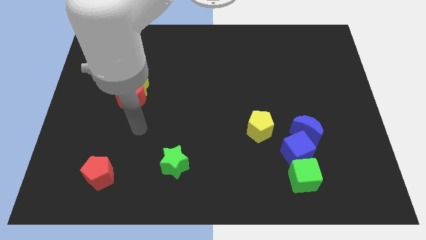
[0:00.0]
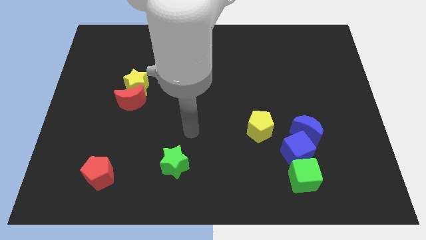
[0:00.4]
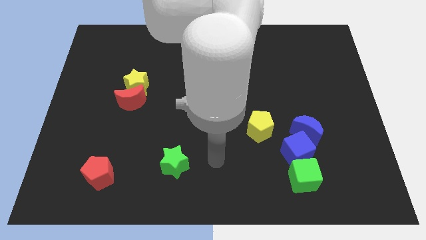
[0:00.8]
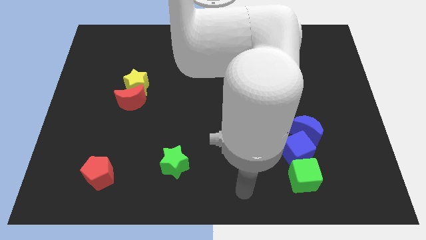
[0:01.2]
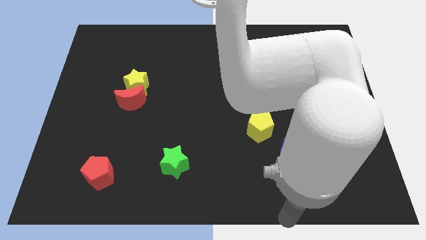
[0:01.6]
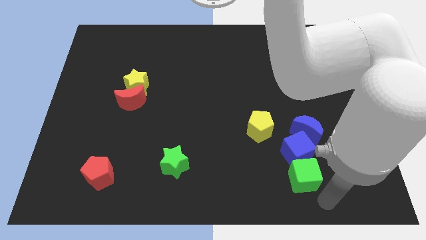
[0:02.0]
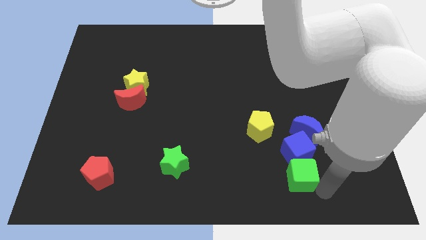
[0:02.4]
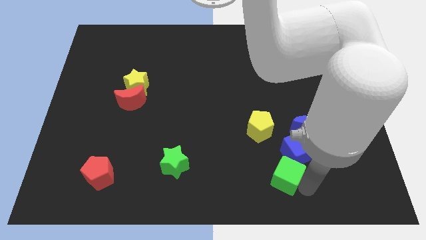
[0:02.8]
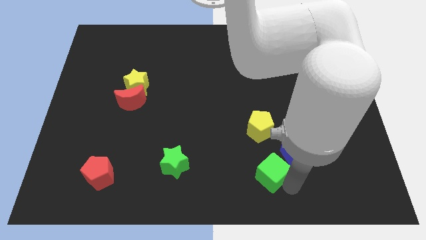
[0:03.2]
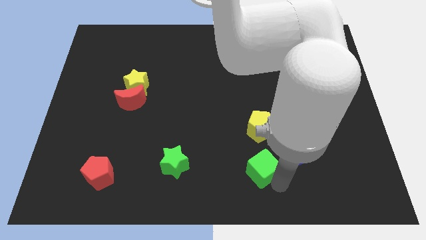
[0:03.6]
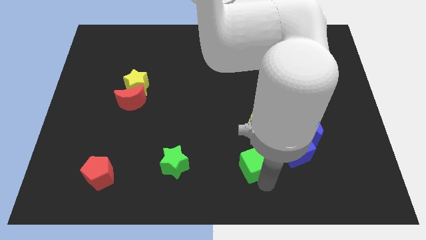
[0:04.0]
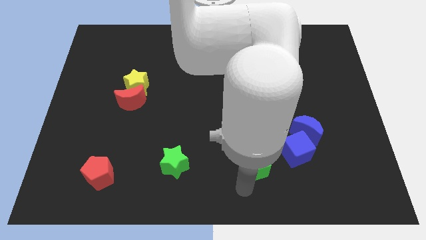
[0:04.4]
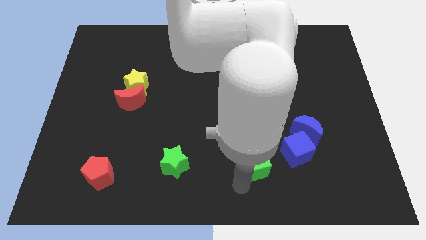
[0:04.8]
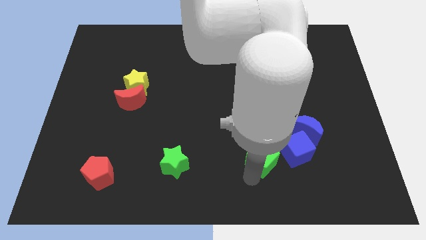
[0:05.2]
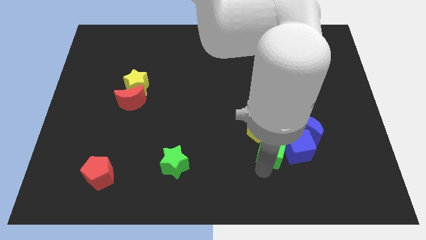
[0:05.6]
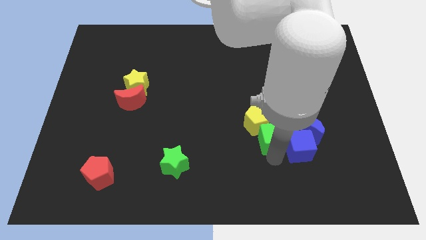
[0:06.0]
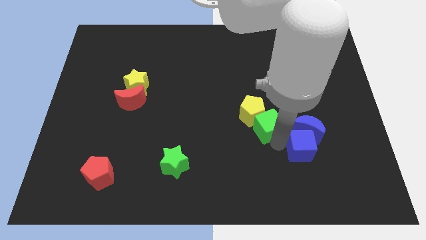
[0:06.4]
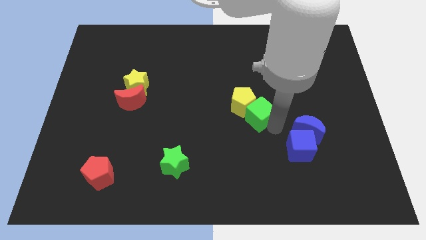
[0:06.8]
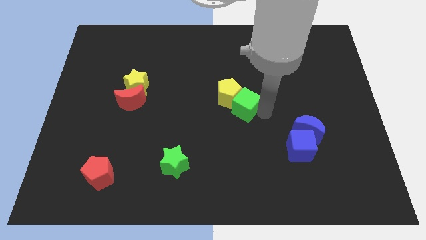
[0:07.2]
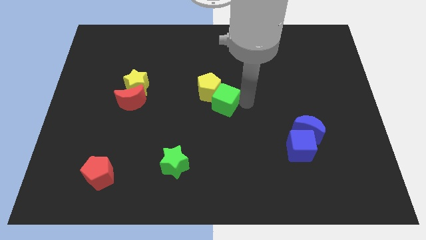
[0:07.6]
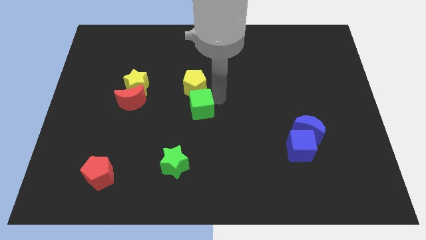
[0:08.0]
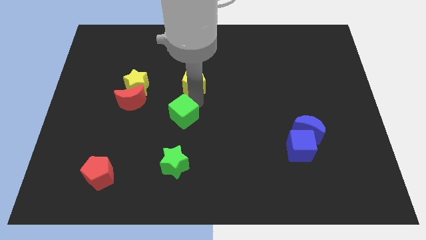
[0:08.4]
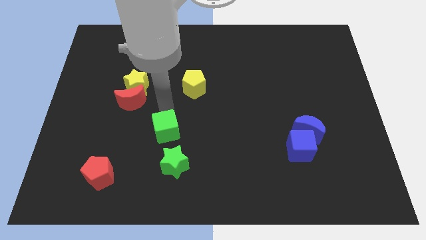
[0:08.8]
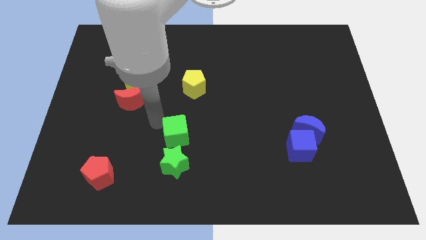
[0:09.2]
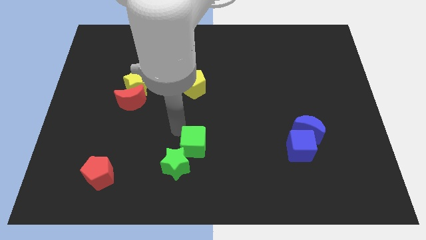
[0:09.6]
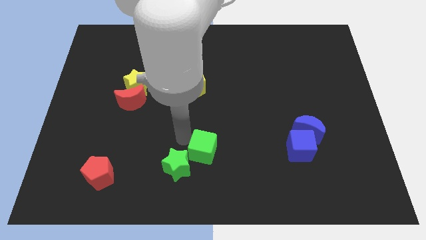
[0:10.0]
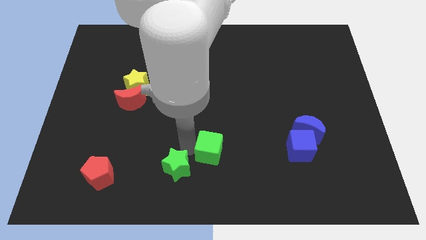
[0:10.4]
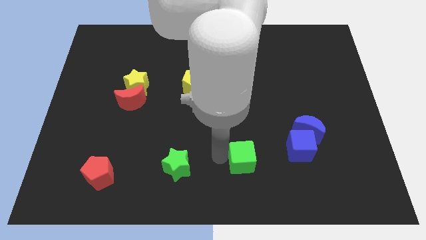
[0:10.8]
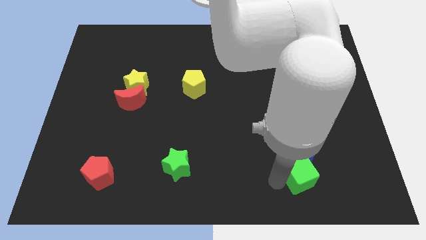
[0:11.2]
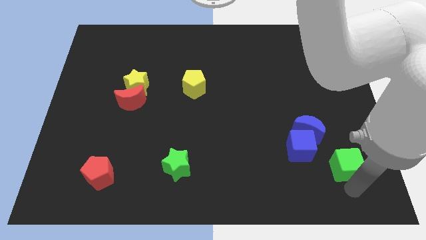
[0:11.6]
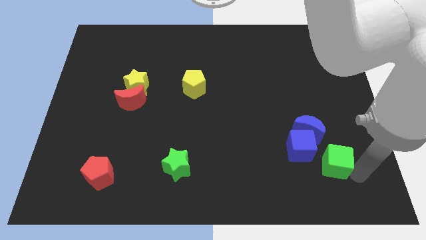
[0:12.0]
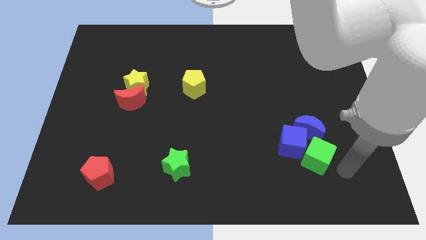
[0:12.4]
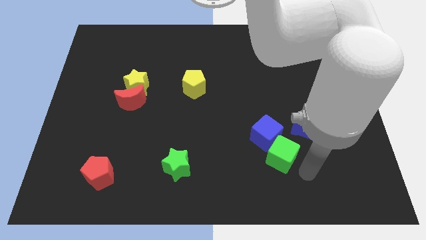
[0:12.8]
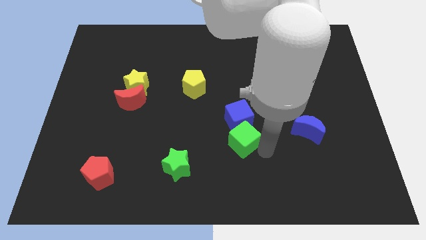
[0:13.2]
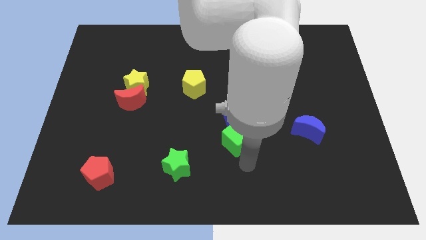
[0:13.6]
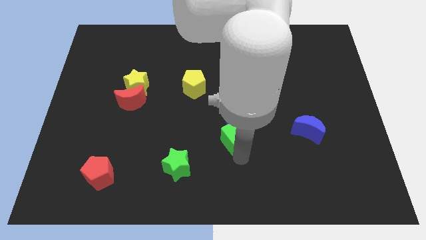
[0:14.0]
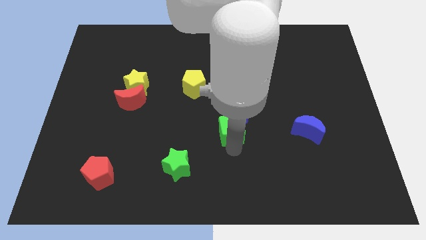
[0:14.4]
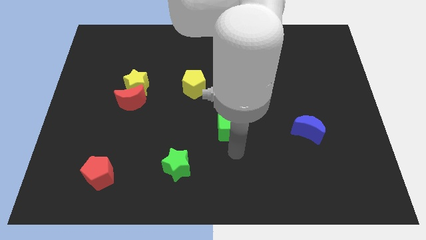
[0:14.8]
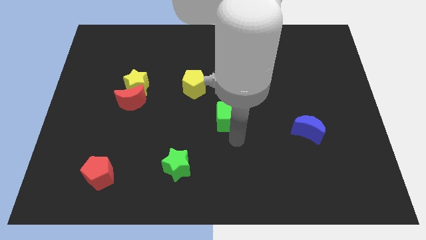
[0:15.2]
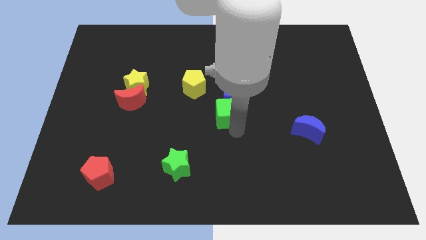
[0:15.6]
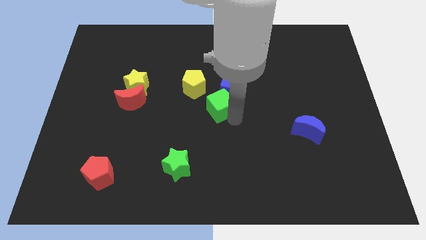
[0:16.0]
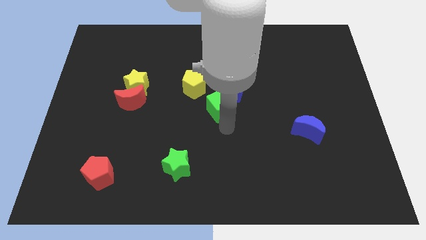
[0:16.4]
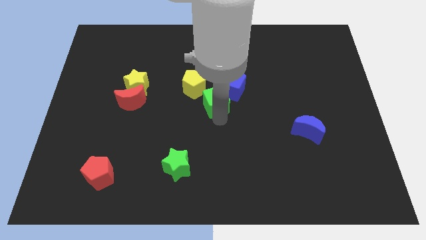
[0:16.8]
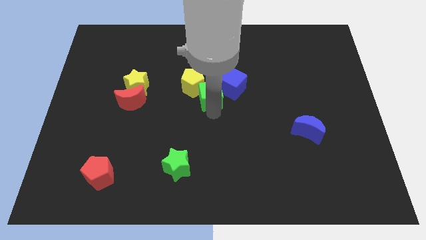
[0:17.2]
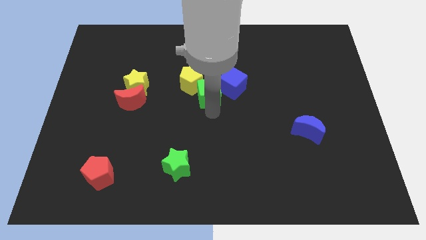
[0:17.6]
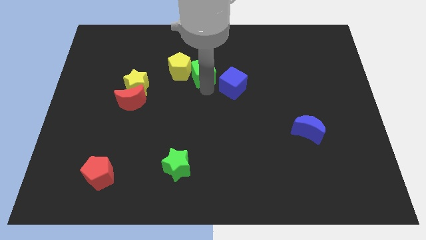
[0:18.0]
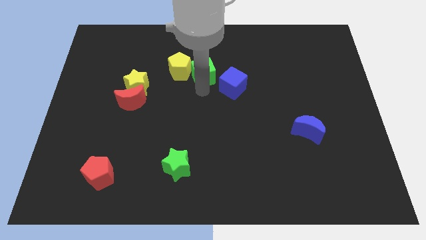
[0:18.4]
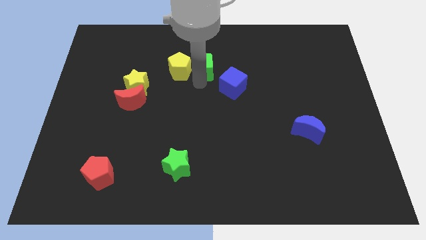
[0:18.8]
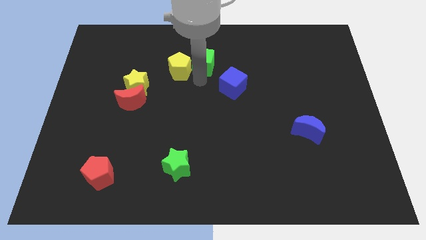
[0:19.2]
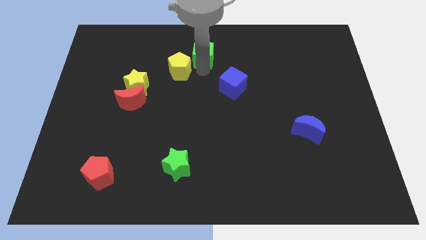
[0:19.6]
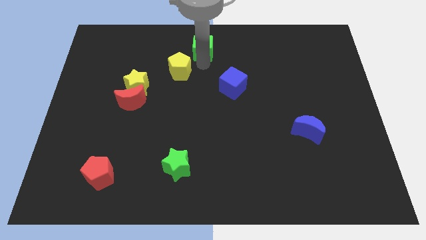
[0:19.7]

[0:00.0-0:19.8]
push the green cube to the top

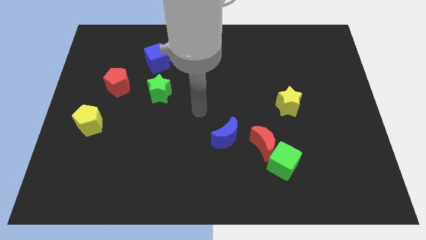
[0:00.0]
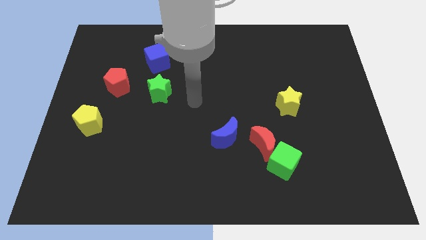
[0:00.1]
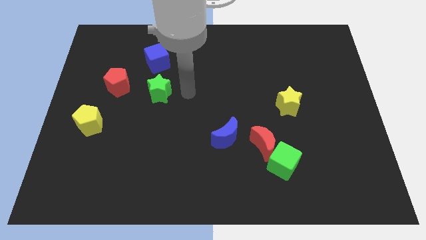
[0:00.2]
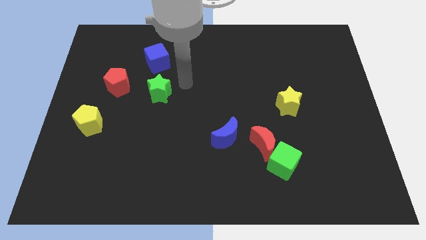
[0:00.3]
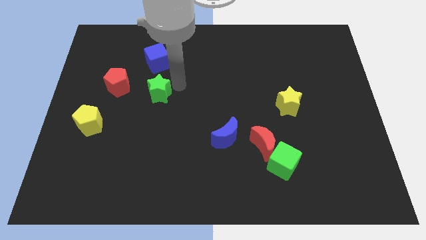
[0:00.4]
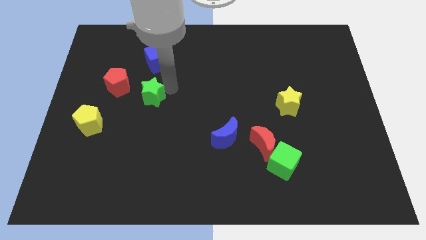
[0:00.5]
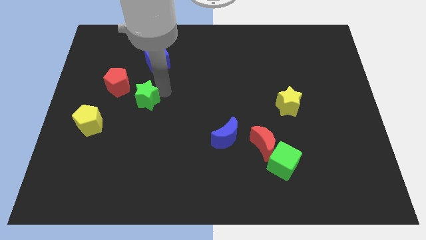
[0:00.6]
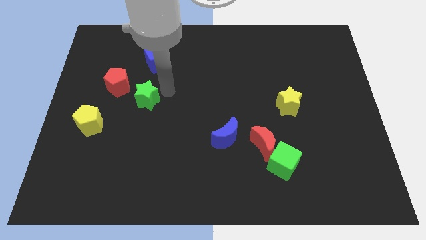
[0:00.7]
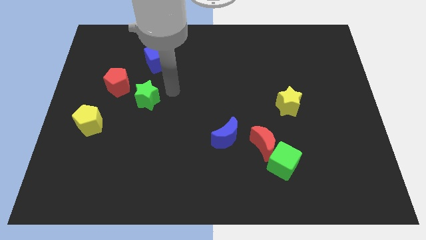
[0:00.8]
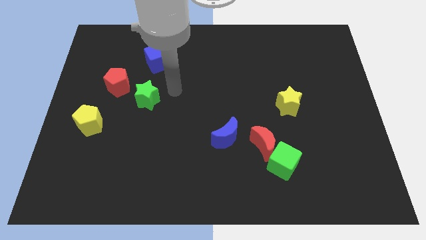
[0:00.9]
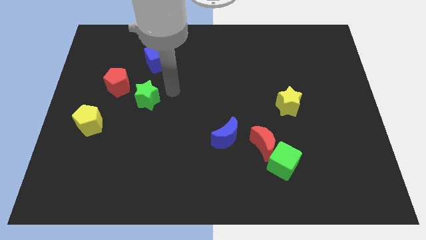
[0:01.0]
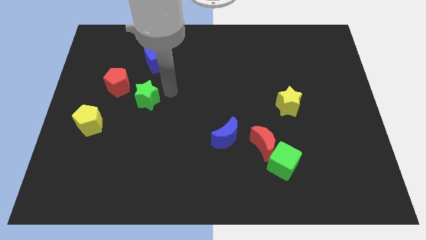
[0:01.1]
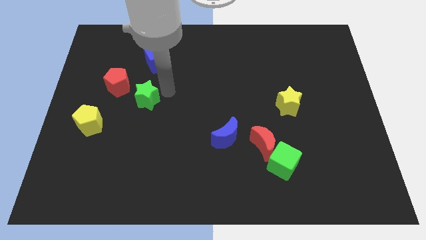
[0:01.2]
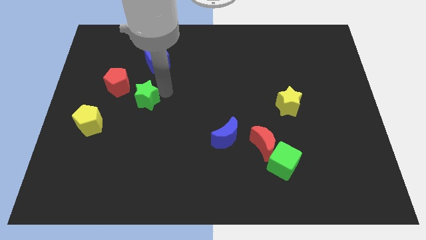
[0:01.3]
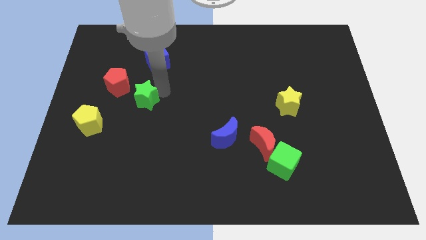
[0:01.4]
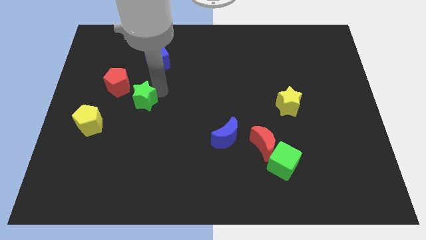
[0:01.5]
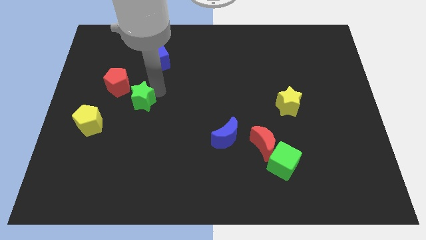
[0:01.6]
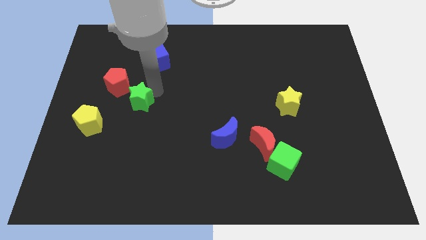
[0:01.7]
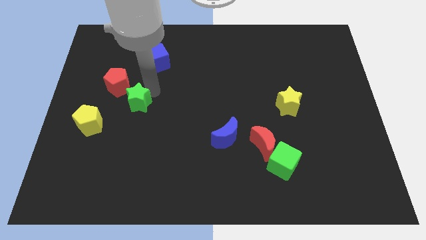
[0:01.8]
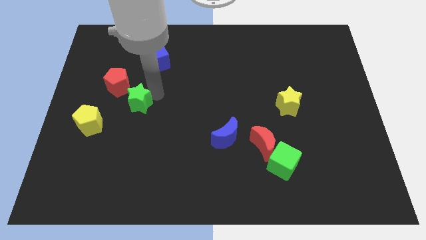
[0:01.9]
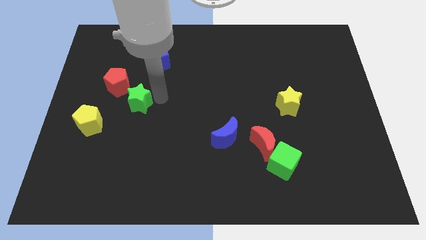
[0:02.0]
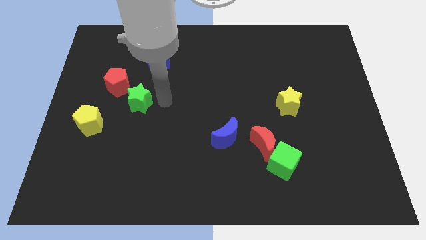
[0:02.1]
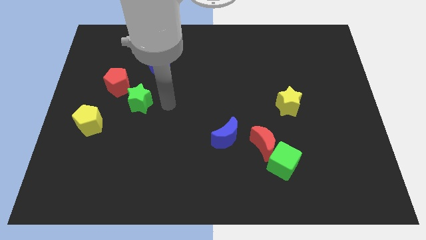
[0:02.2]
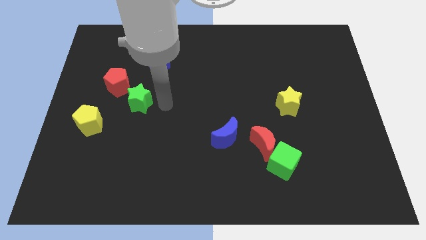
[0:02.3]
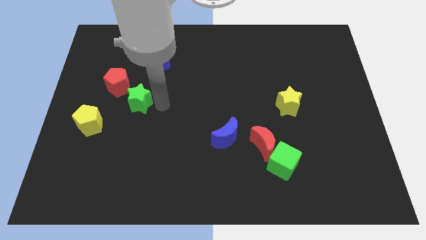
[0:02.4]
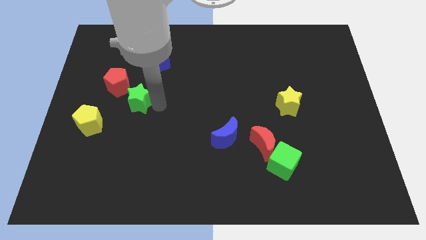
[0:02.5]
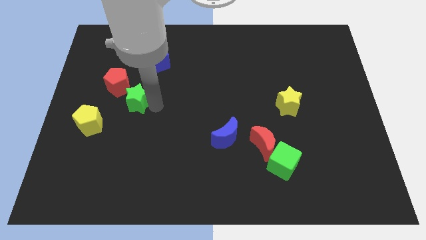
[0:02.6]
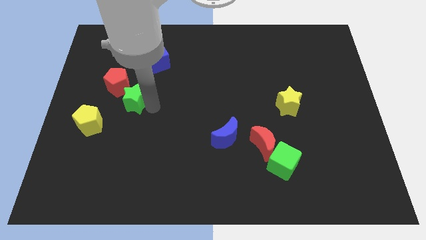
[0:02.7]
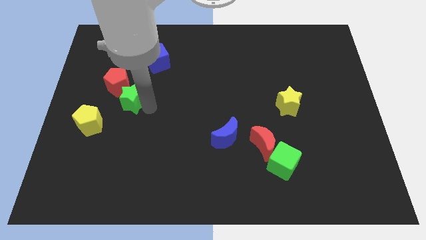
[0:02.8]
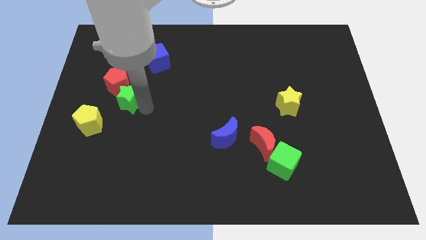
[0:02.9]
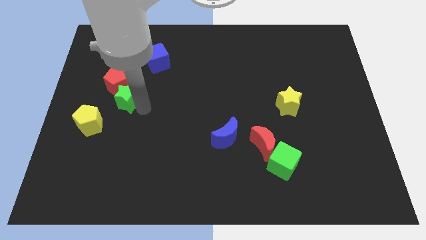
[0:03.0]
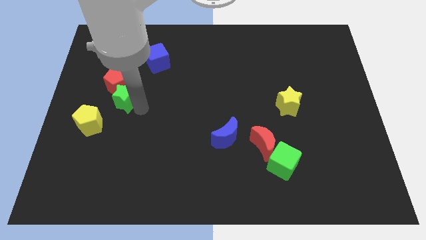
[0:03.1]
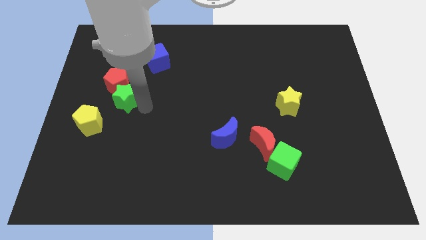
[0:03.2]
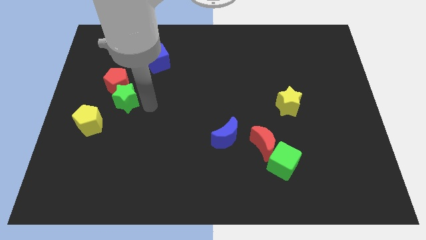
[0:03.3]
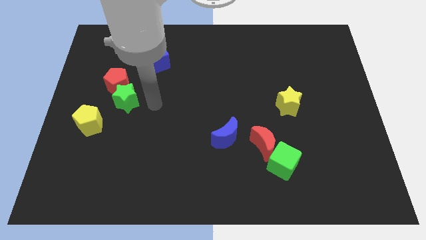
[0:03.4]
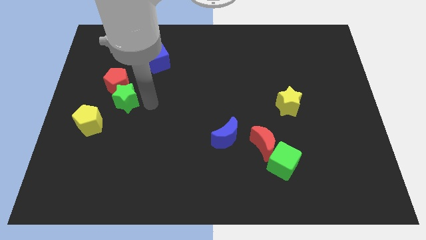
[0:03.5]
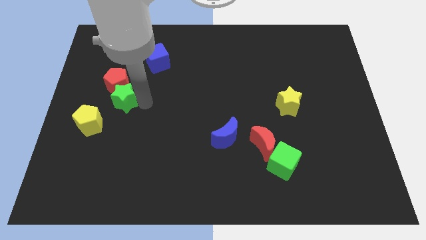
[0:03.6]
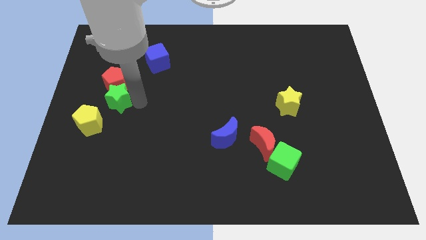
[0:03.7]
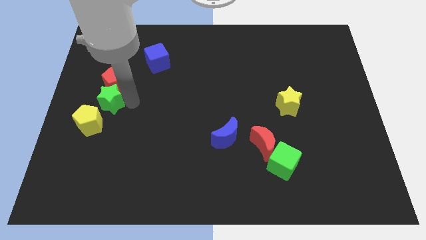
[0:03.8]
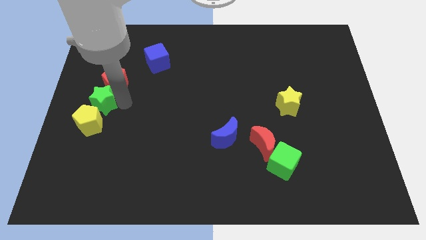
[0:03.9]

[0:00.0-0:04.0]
put the green star to the left side
